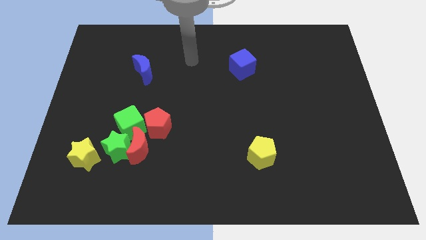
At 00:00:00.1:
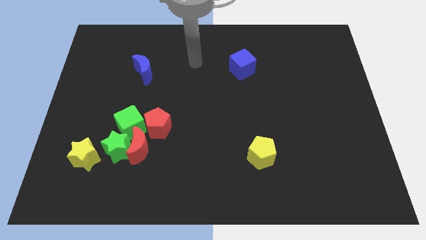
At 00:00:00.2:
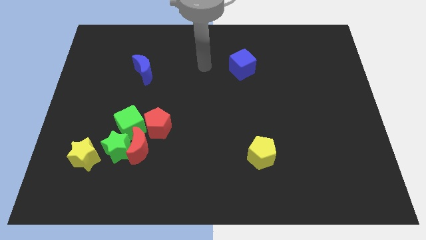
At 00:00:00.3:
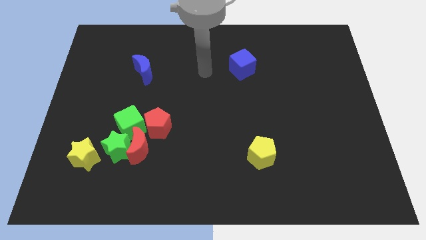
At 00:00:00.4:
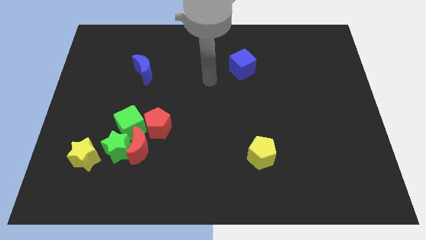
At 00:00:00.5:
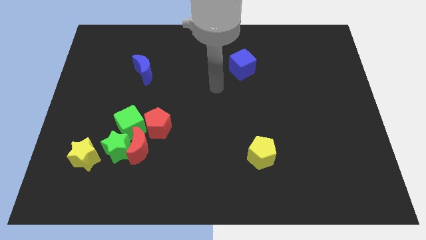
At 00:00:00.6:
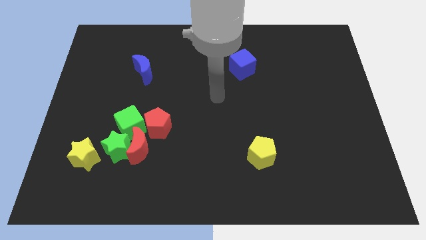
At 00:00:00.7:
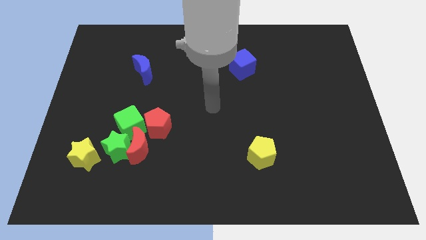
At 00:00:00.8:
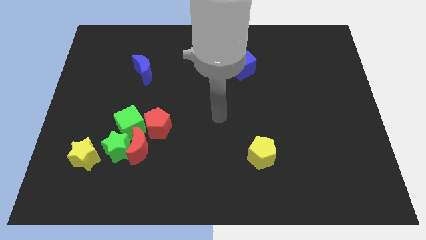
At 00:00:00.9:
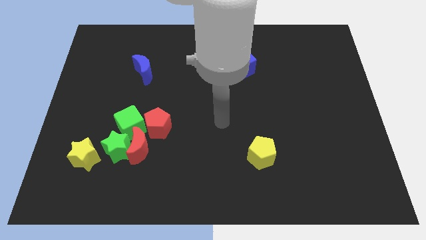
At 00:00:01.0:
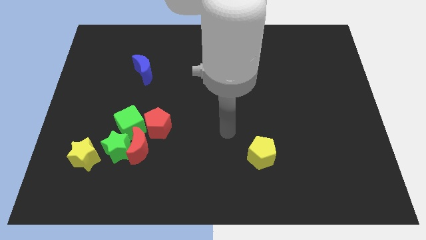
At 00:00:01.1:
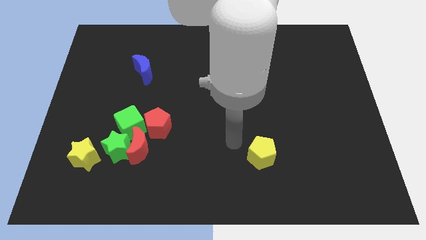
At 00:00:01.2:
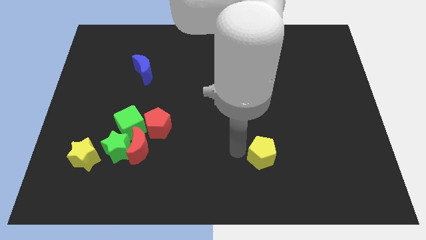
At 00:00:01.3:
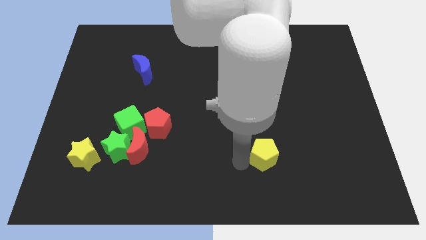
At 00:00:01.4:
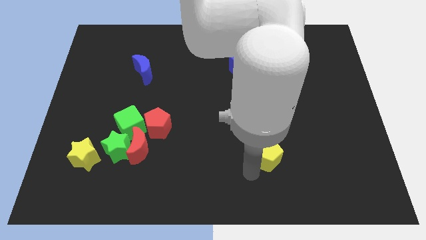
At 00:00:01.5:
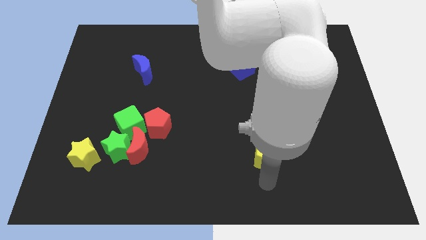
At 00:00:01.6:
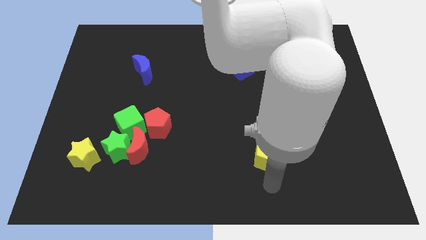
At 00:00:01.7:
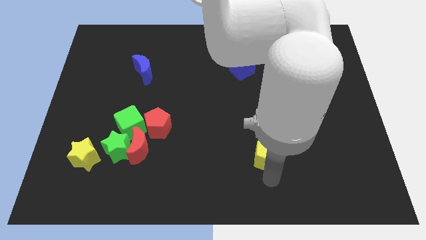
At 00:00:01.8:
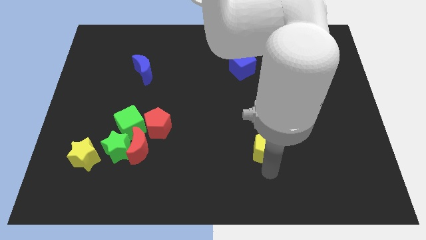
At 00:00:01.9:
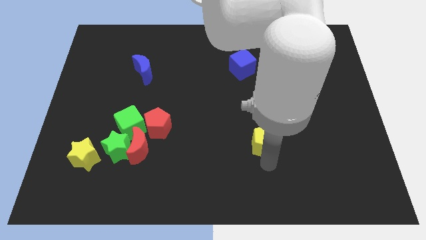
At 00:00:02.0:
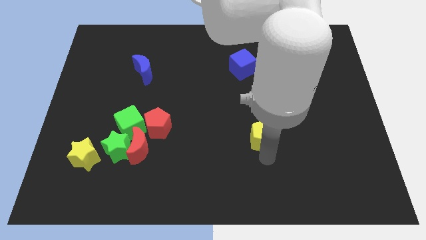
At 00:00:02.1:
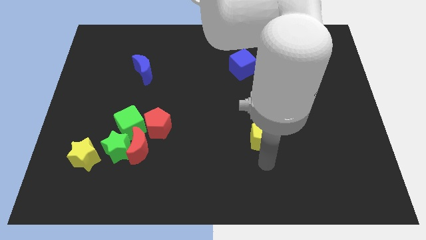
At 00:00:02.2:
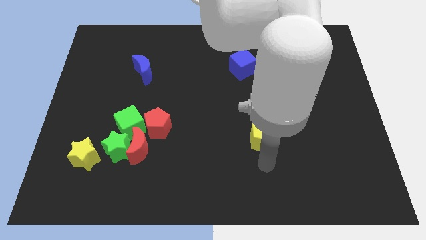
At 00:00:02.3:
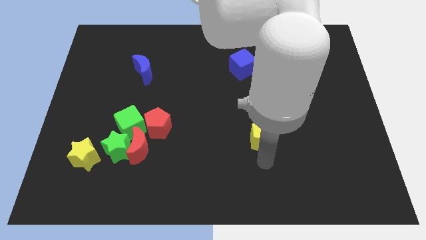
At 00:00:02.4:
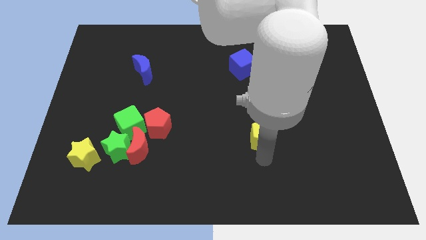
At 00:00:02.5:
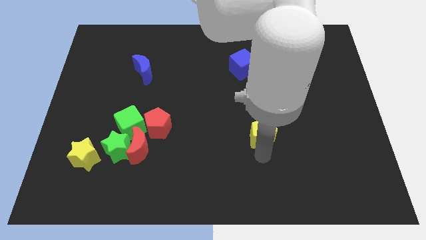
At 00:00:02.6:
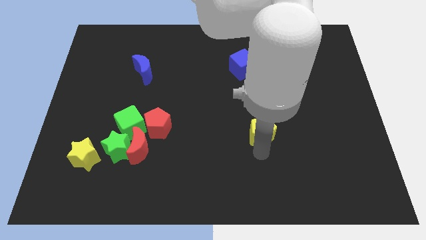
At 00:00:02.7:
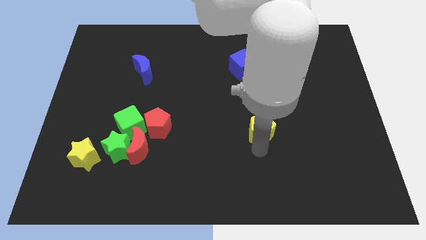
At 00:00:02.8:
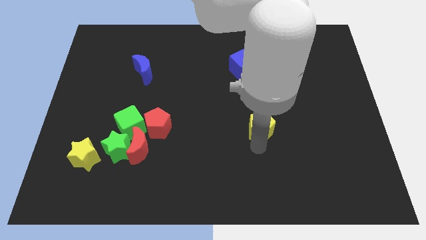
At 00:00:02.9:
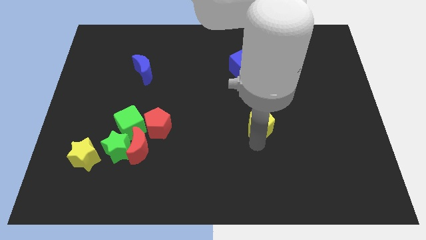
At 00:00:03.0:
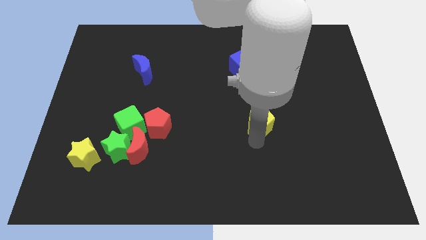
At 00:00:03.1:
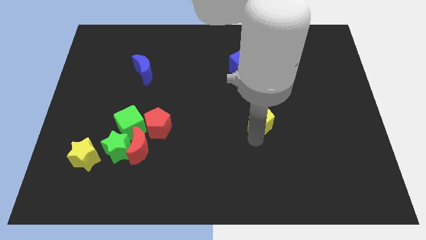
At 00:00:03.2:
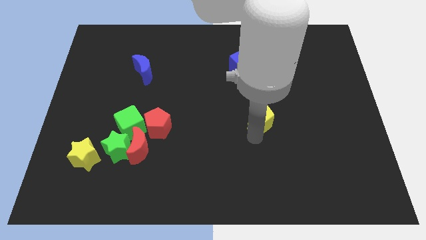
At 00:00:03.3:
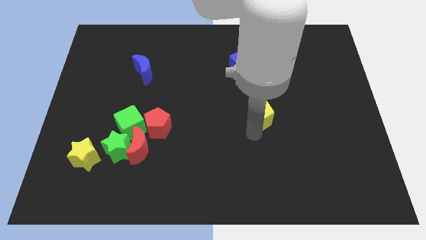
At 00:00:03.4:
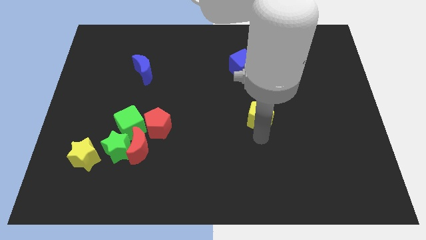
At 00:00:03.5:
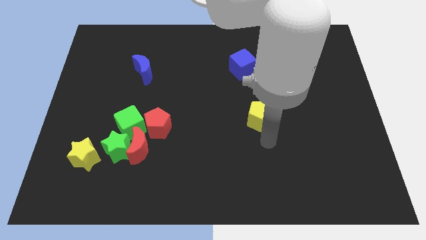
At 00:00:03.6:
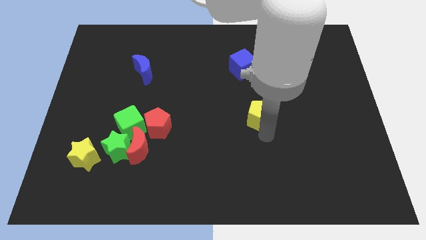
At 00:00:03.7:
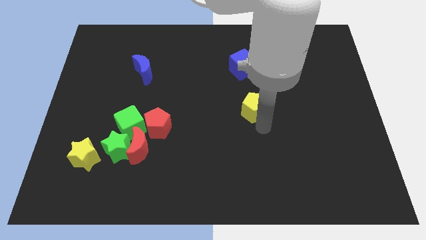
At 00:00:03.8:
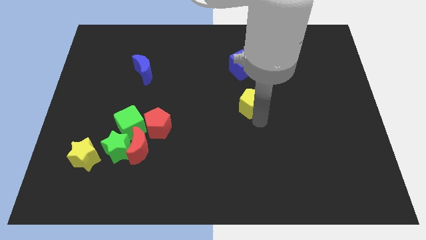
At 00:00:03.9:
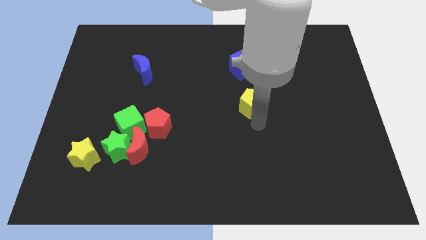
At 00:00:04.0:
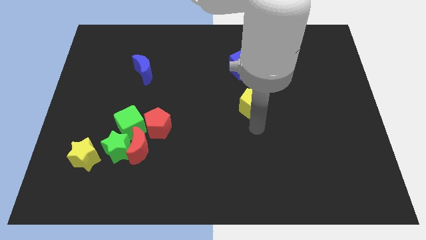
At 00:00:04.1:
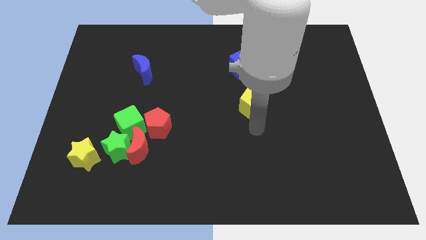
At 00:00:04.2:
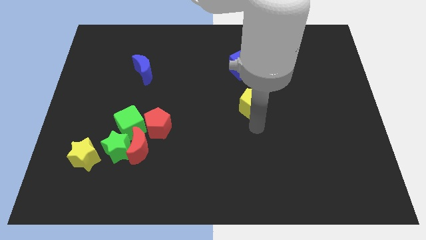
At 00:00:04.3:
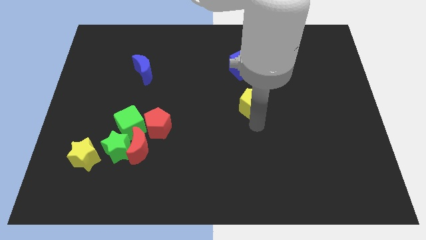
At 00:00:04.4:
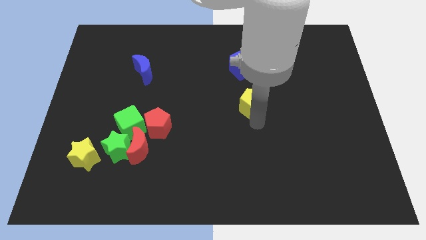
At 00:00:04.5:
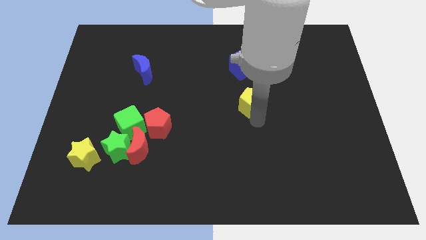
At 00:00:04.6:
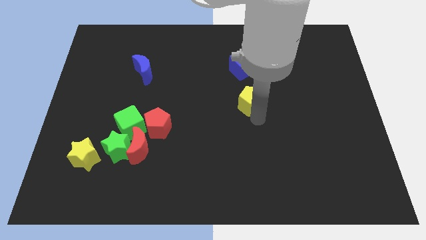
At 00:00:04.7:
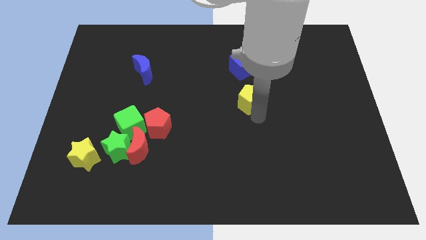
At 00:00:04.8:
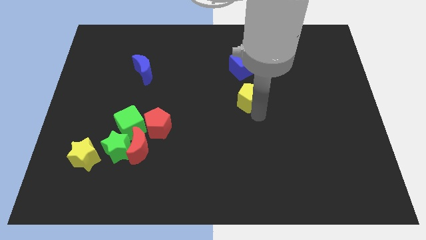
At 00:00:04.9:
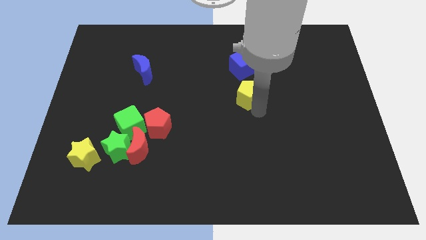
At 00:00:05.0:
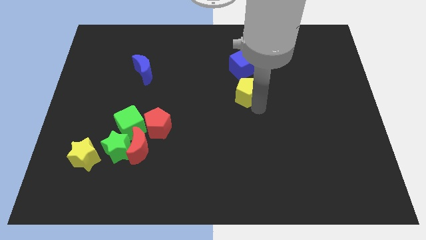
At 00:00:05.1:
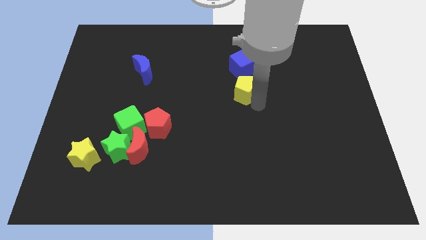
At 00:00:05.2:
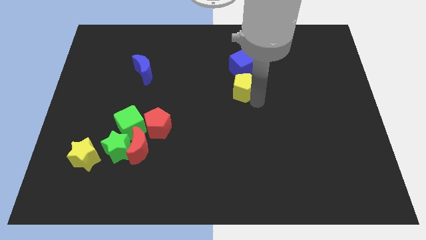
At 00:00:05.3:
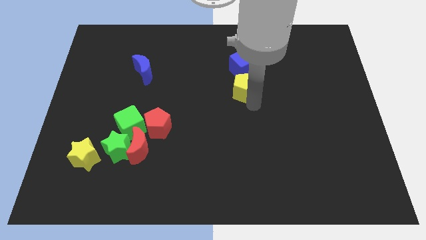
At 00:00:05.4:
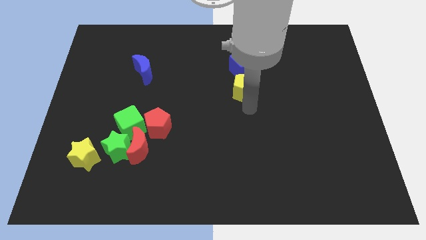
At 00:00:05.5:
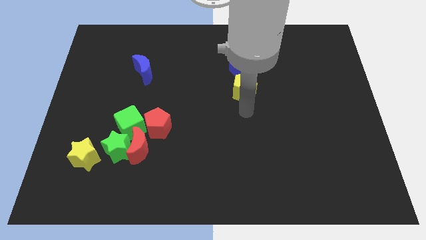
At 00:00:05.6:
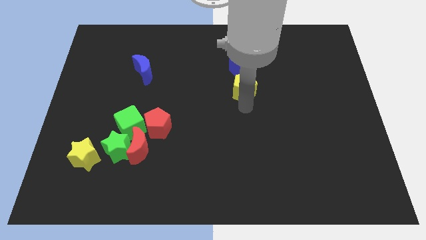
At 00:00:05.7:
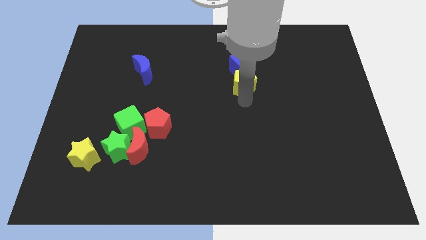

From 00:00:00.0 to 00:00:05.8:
move the yellow pentagon next to the blue cube

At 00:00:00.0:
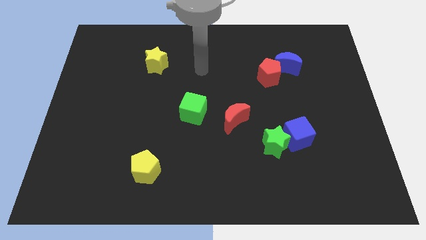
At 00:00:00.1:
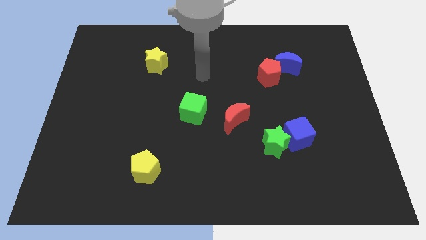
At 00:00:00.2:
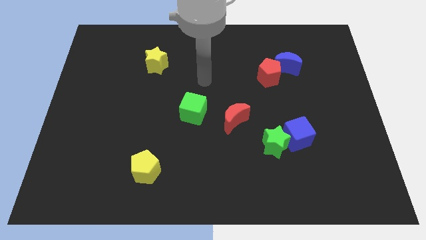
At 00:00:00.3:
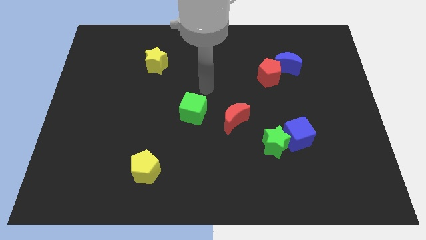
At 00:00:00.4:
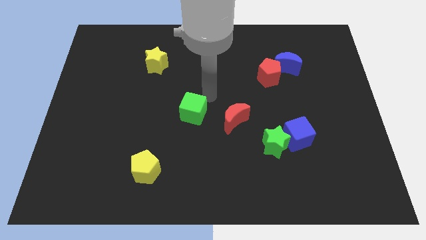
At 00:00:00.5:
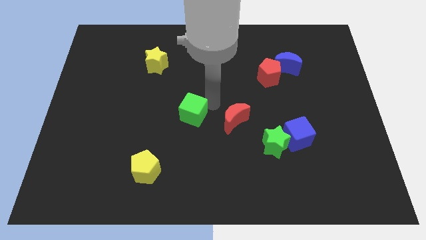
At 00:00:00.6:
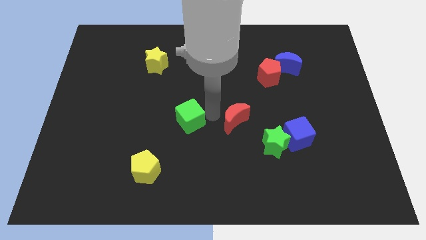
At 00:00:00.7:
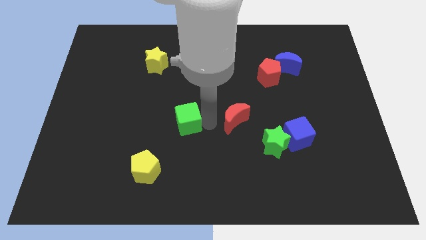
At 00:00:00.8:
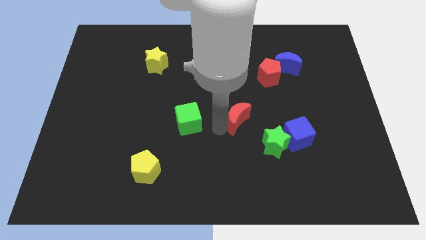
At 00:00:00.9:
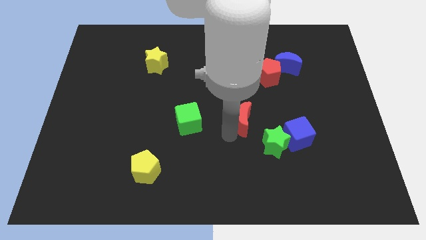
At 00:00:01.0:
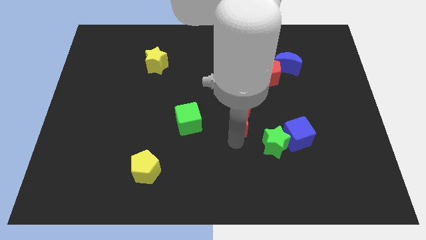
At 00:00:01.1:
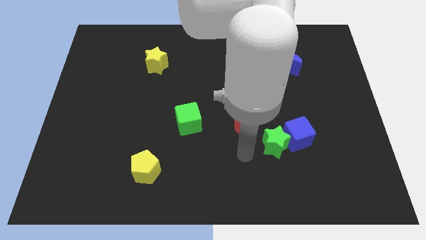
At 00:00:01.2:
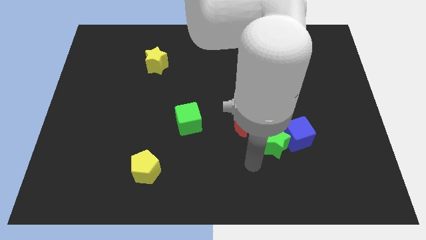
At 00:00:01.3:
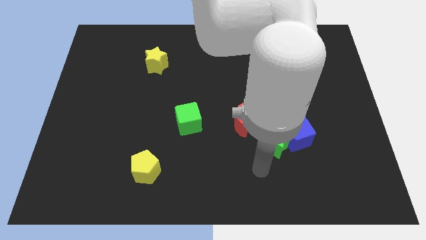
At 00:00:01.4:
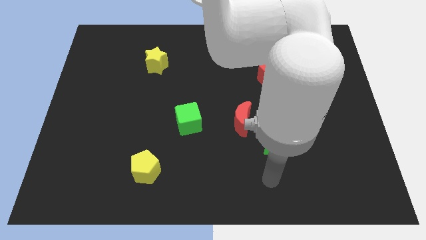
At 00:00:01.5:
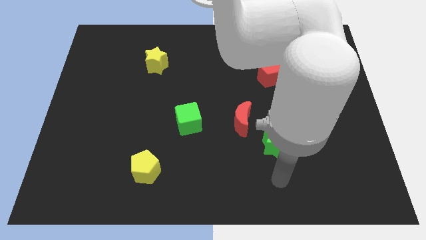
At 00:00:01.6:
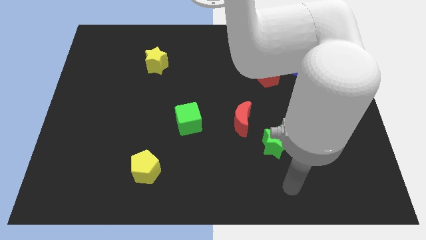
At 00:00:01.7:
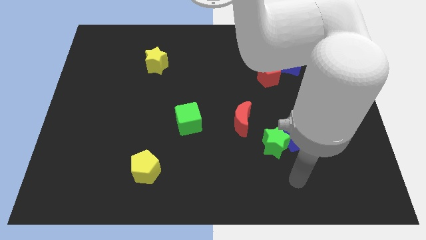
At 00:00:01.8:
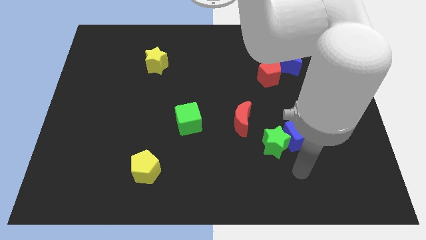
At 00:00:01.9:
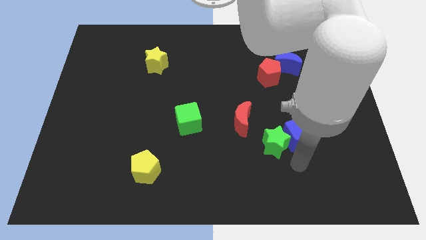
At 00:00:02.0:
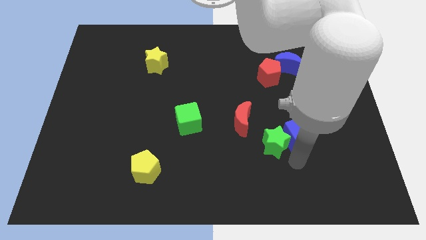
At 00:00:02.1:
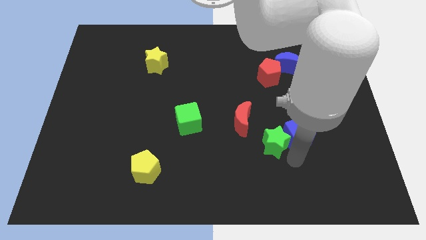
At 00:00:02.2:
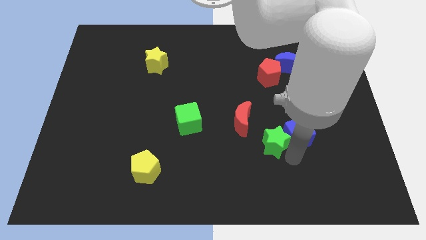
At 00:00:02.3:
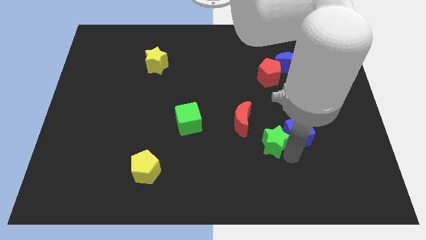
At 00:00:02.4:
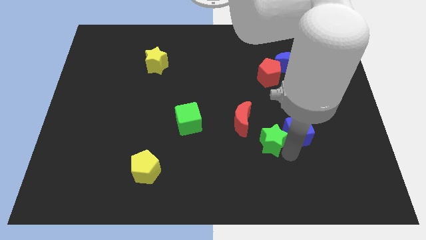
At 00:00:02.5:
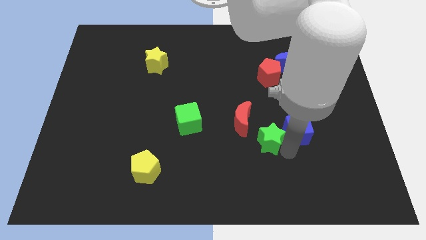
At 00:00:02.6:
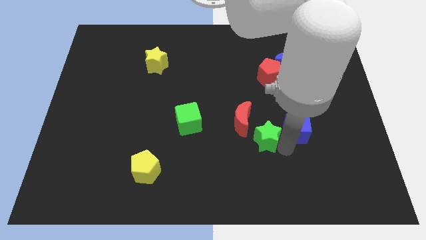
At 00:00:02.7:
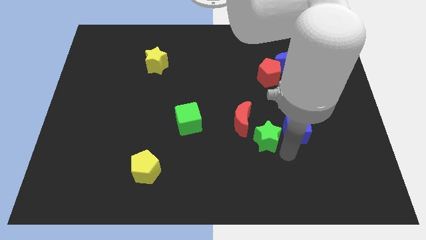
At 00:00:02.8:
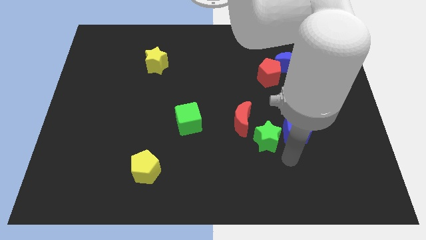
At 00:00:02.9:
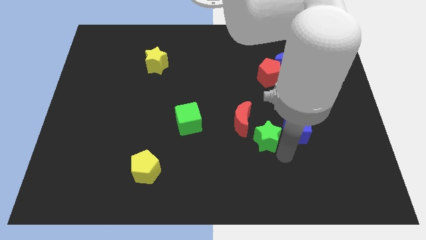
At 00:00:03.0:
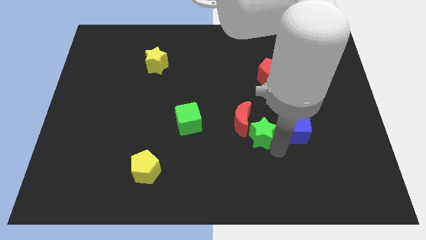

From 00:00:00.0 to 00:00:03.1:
push the green star next to the red moon
